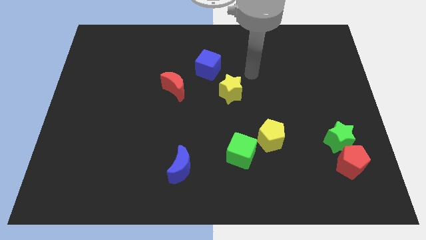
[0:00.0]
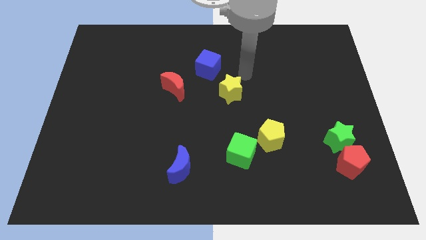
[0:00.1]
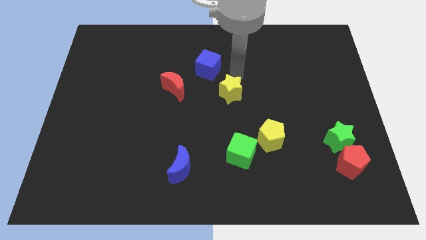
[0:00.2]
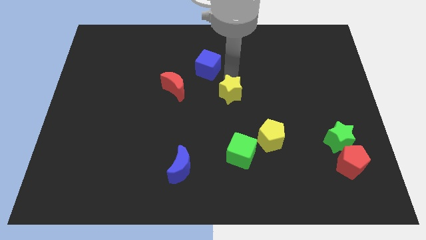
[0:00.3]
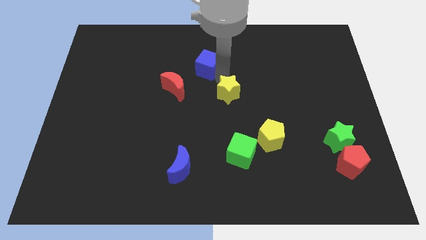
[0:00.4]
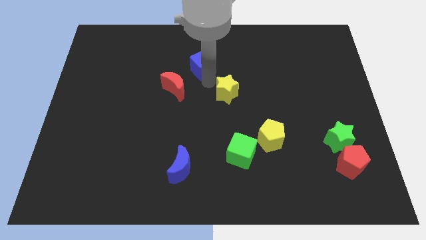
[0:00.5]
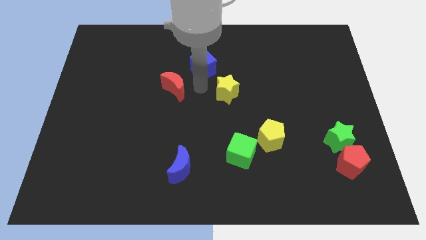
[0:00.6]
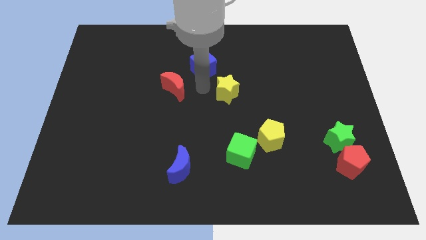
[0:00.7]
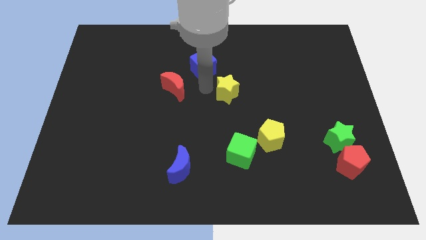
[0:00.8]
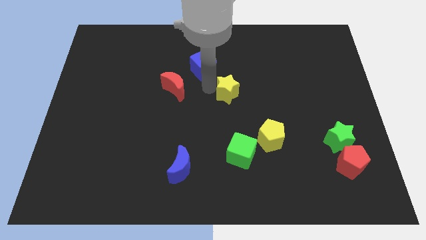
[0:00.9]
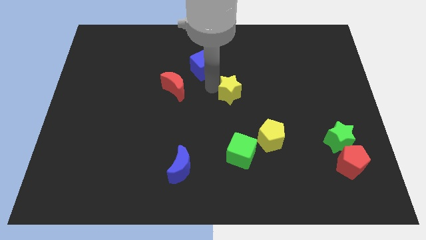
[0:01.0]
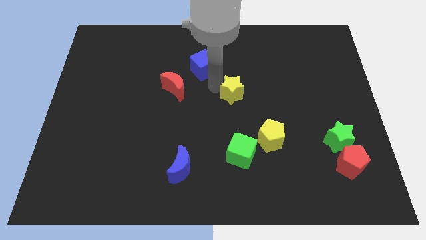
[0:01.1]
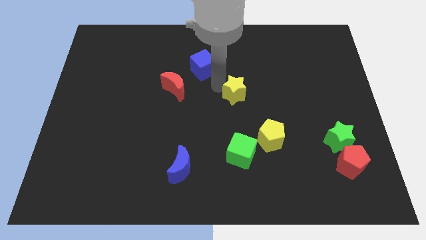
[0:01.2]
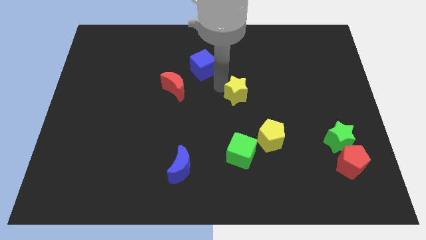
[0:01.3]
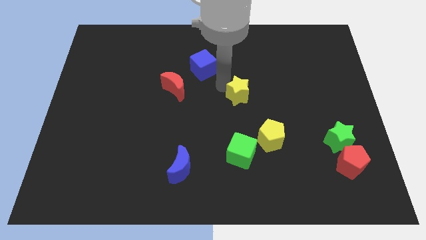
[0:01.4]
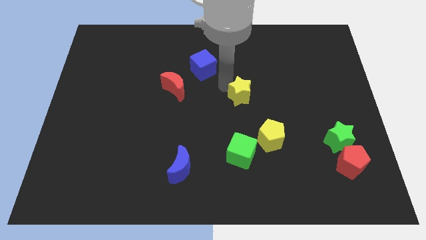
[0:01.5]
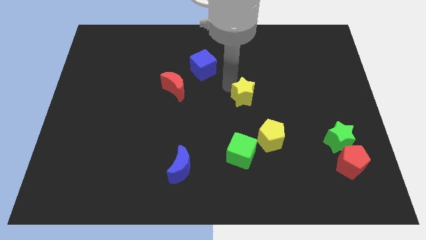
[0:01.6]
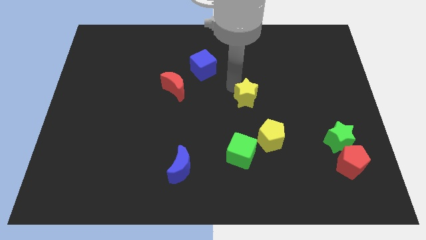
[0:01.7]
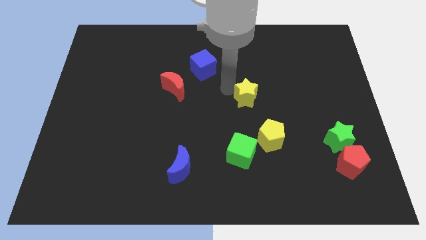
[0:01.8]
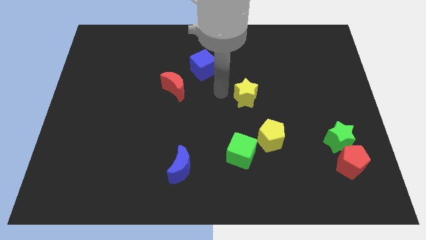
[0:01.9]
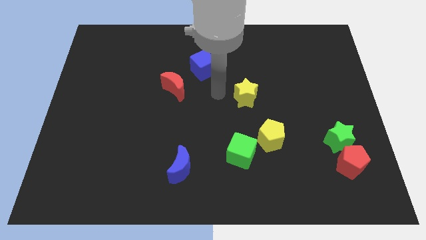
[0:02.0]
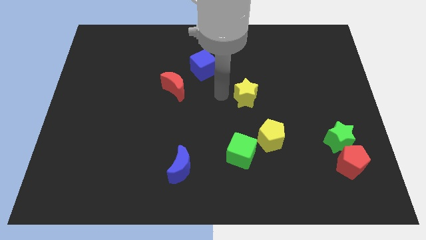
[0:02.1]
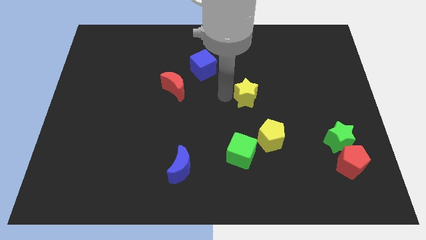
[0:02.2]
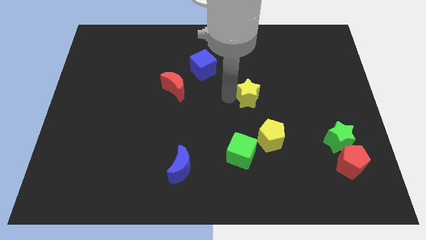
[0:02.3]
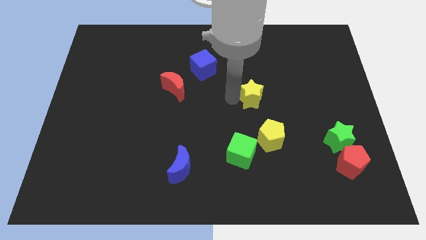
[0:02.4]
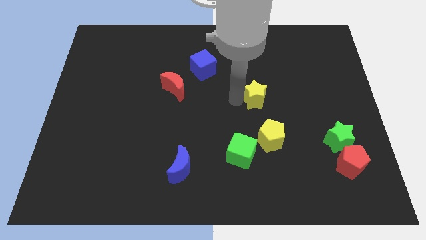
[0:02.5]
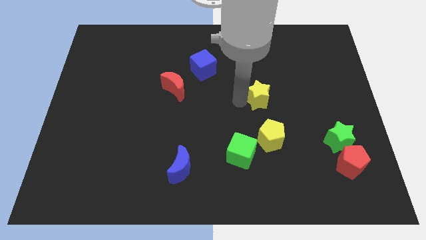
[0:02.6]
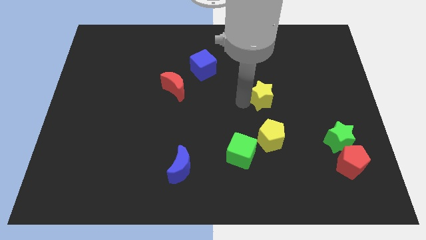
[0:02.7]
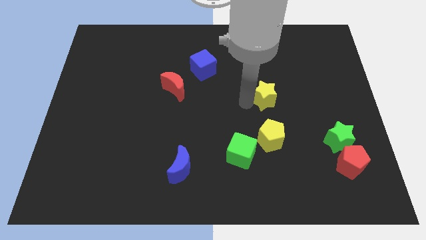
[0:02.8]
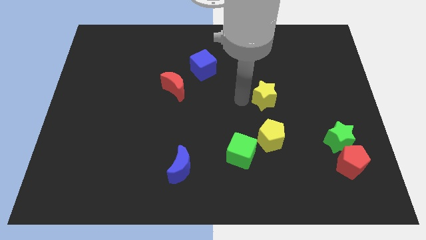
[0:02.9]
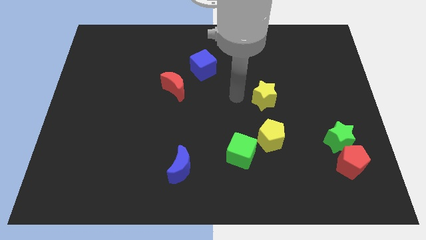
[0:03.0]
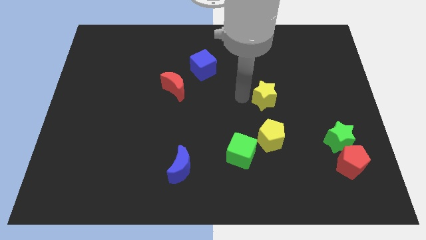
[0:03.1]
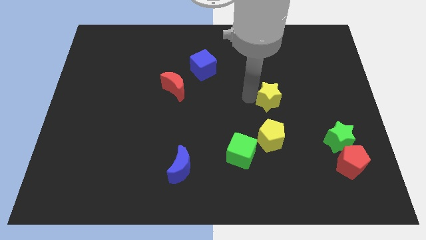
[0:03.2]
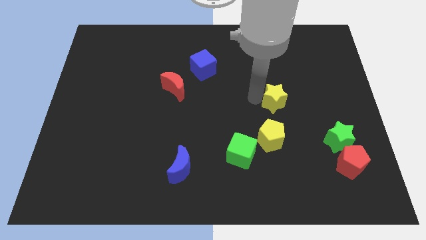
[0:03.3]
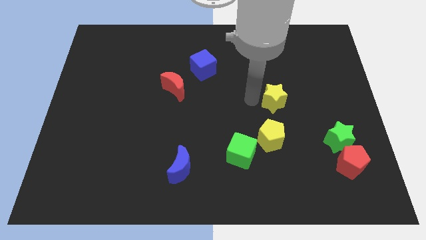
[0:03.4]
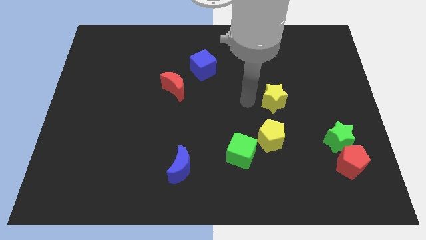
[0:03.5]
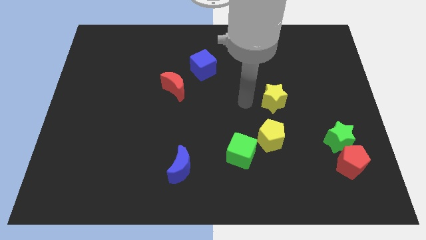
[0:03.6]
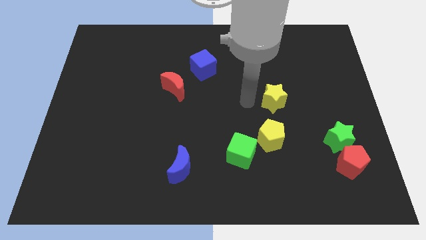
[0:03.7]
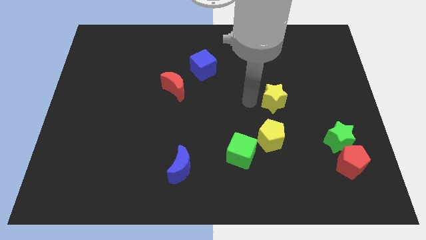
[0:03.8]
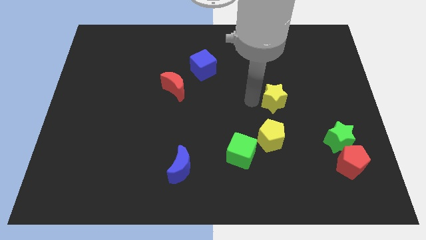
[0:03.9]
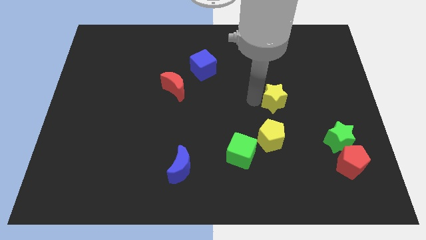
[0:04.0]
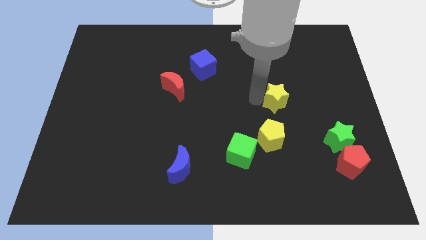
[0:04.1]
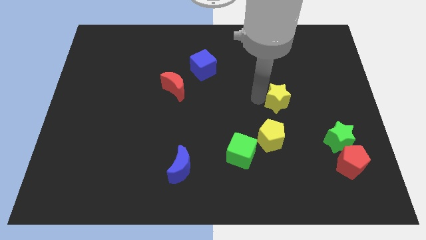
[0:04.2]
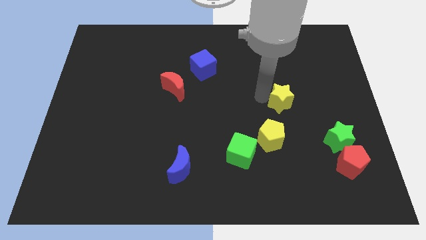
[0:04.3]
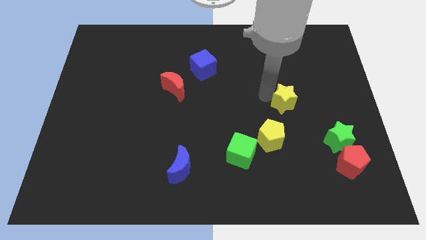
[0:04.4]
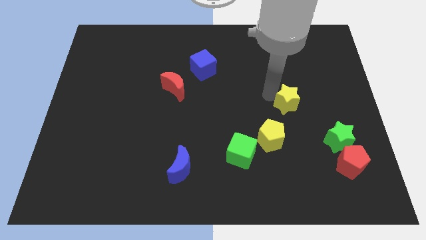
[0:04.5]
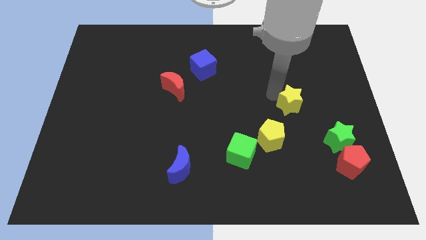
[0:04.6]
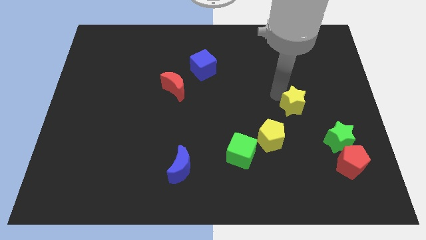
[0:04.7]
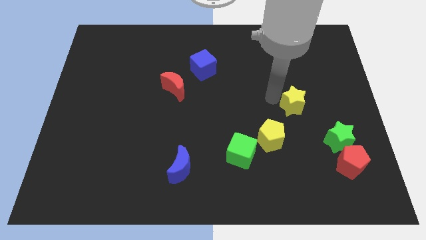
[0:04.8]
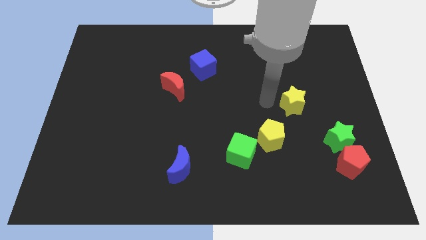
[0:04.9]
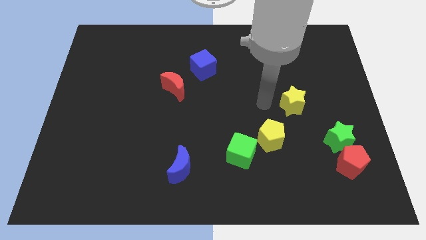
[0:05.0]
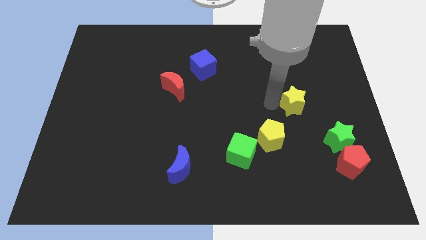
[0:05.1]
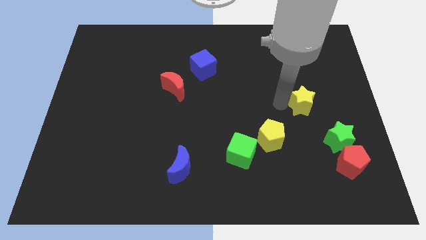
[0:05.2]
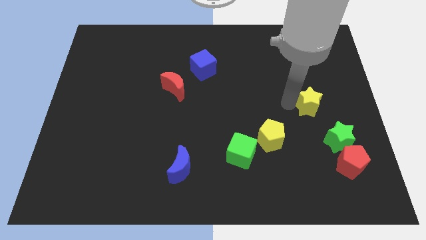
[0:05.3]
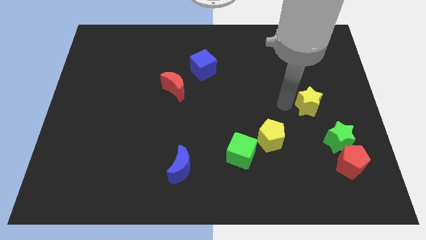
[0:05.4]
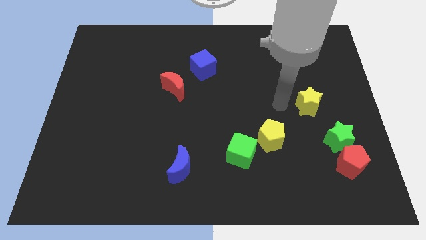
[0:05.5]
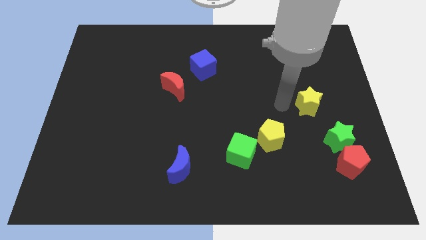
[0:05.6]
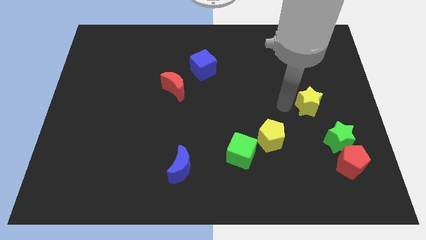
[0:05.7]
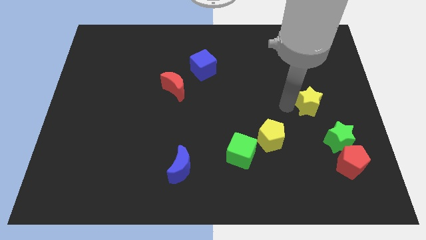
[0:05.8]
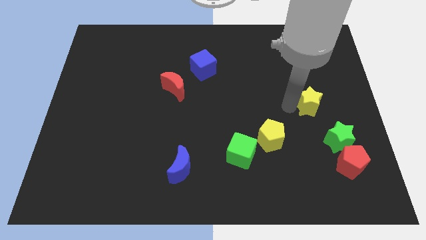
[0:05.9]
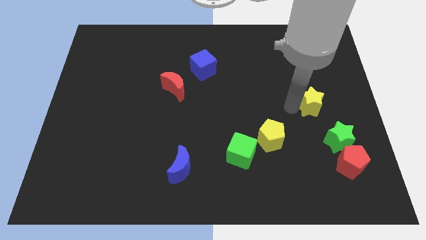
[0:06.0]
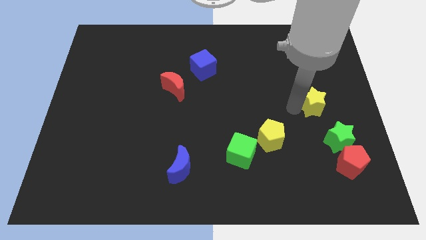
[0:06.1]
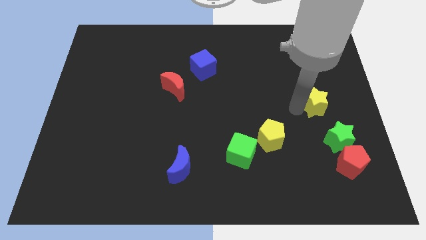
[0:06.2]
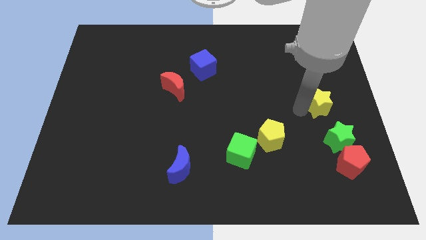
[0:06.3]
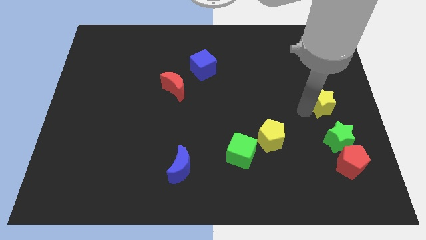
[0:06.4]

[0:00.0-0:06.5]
move the yellow star to the center right
